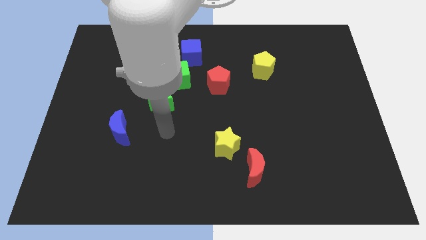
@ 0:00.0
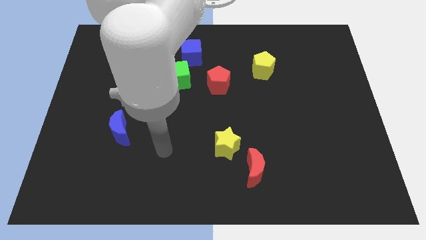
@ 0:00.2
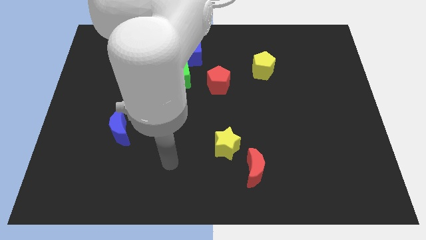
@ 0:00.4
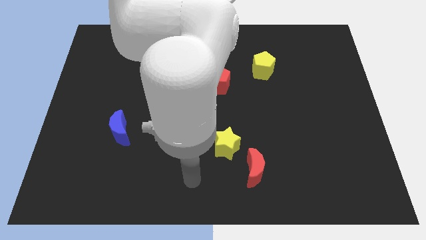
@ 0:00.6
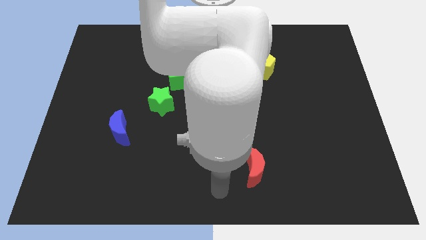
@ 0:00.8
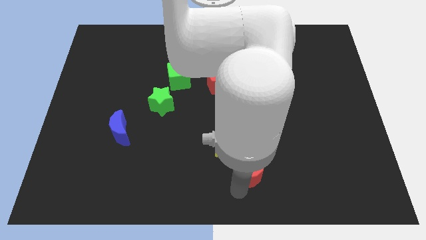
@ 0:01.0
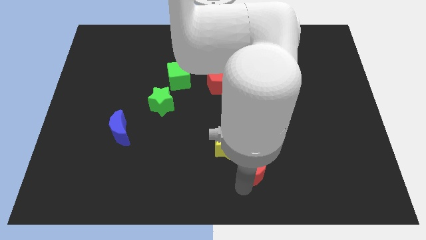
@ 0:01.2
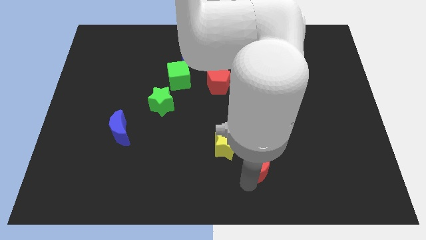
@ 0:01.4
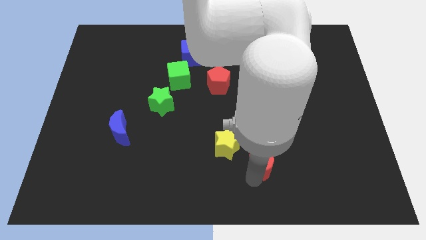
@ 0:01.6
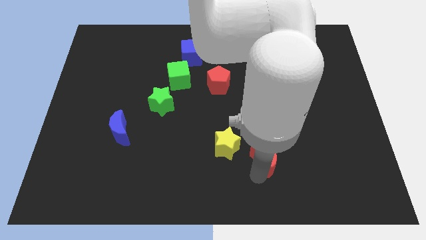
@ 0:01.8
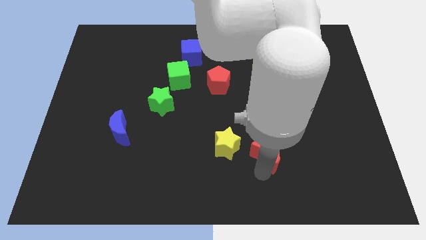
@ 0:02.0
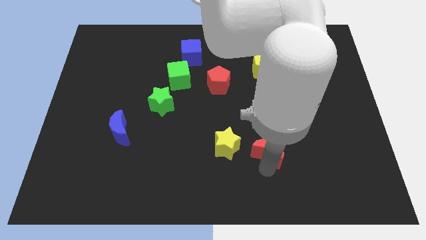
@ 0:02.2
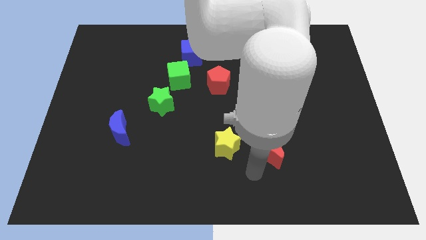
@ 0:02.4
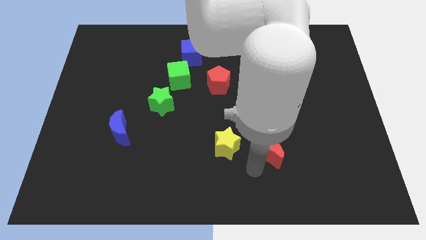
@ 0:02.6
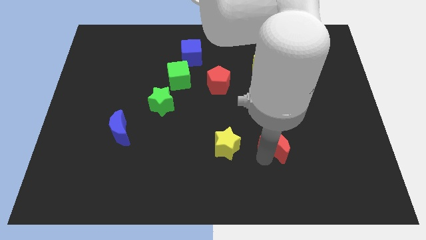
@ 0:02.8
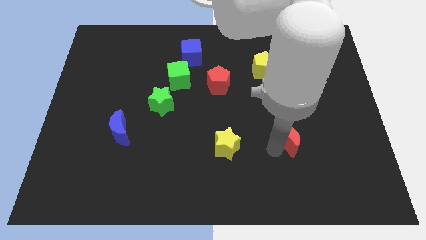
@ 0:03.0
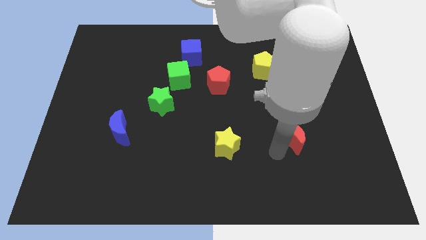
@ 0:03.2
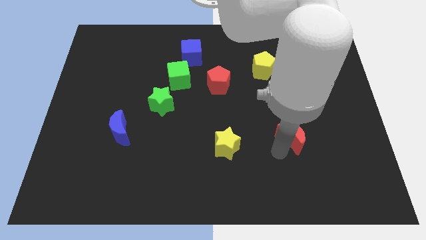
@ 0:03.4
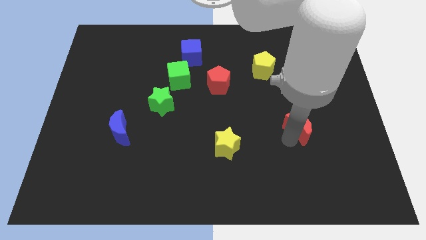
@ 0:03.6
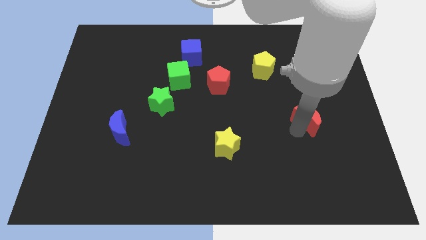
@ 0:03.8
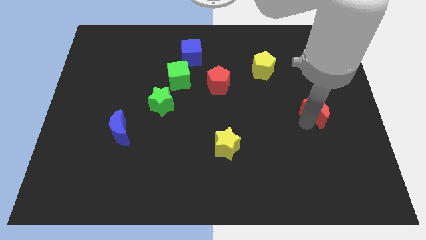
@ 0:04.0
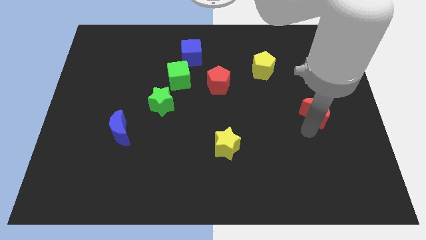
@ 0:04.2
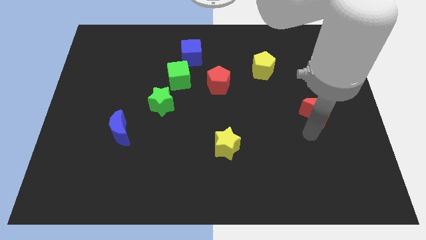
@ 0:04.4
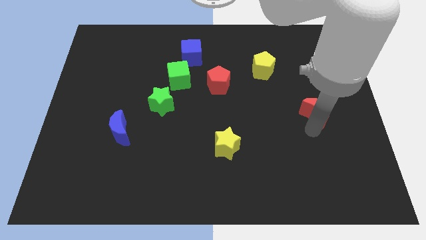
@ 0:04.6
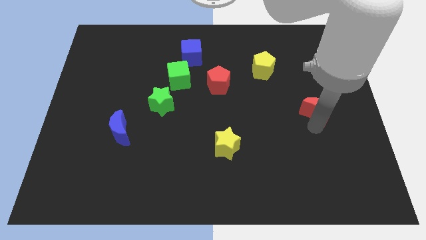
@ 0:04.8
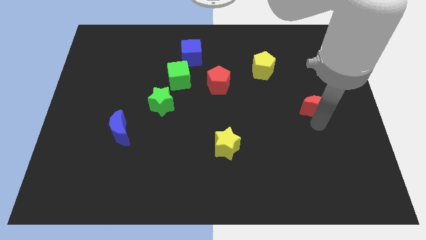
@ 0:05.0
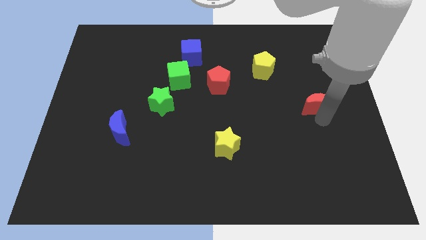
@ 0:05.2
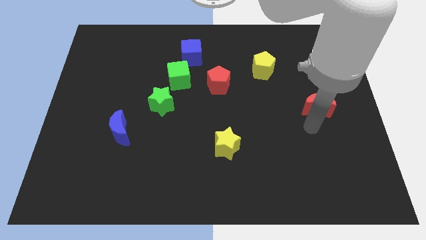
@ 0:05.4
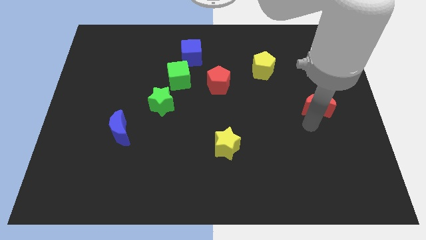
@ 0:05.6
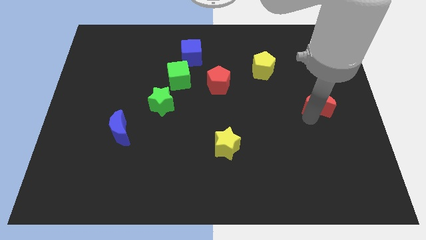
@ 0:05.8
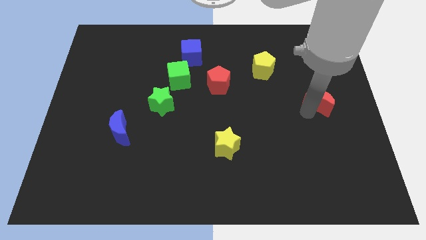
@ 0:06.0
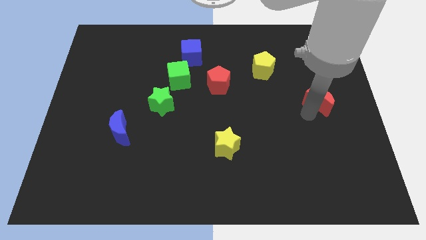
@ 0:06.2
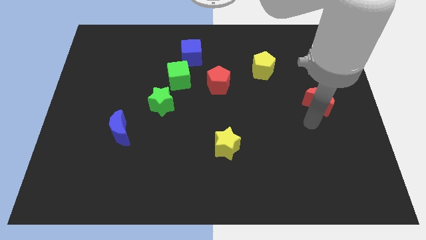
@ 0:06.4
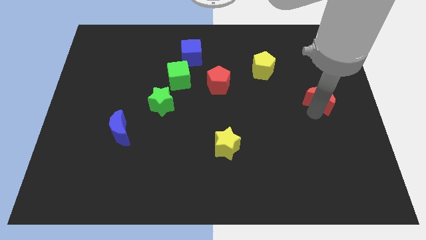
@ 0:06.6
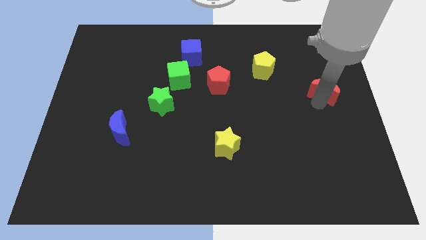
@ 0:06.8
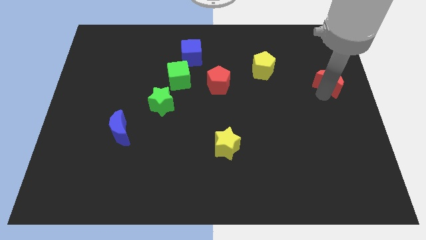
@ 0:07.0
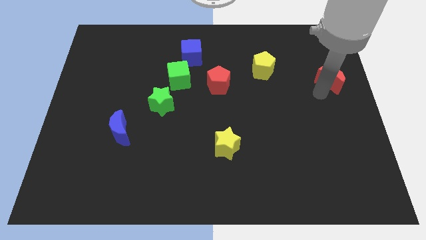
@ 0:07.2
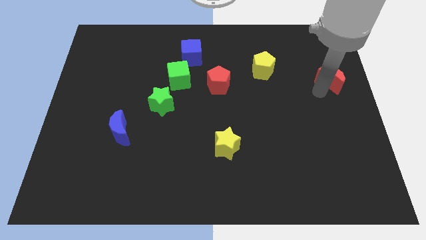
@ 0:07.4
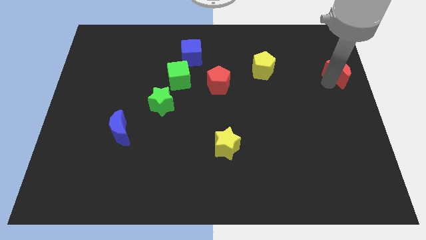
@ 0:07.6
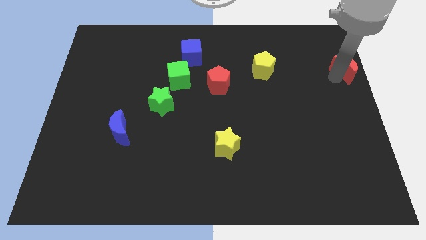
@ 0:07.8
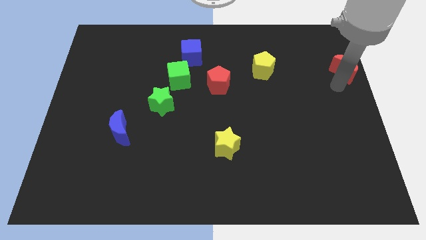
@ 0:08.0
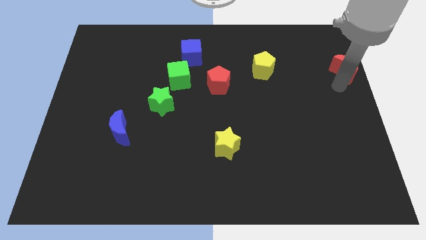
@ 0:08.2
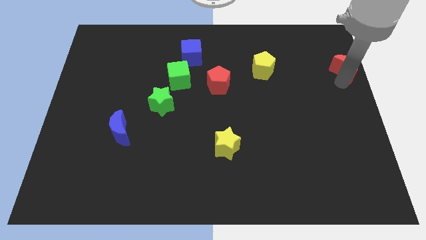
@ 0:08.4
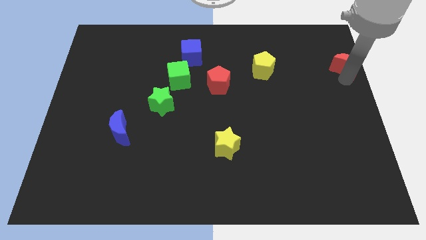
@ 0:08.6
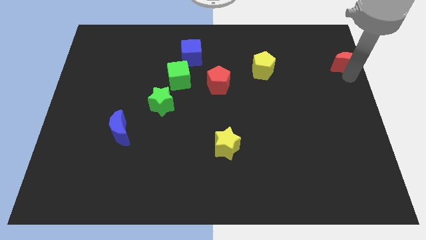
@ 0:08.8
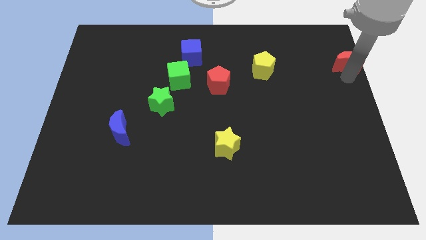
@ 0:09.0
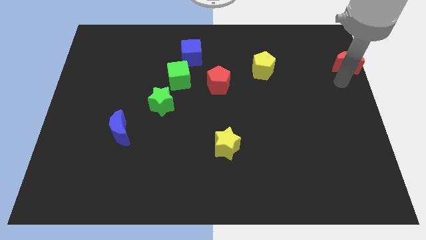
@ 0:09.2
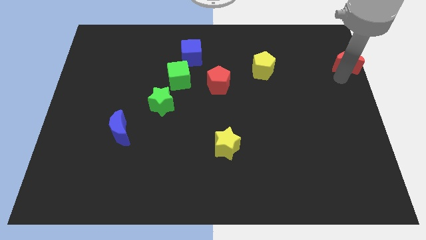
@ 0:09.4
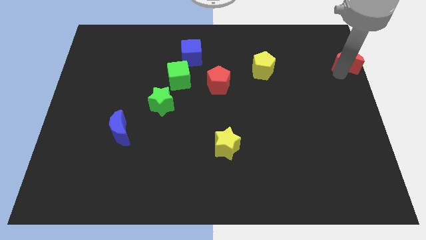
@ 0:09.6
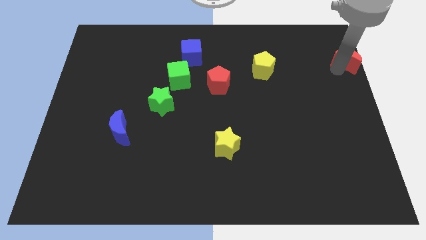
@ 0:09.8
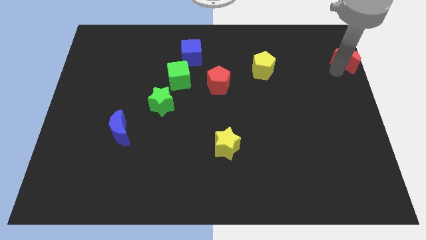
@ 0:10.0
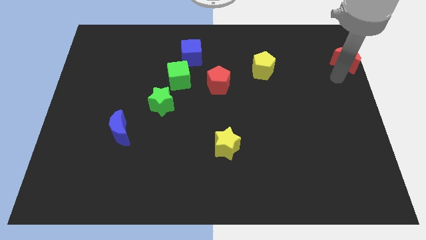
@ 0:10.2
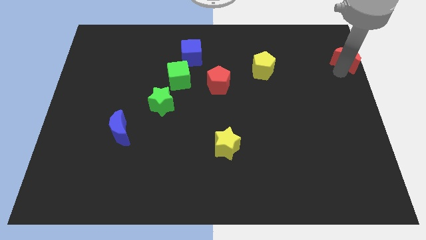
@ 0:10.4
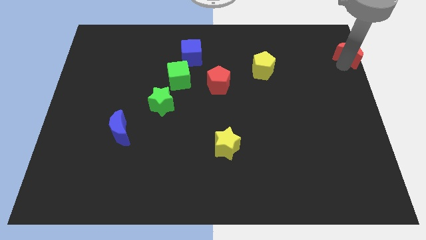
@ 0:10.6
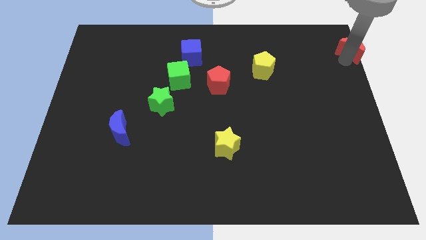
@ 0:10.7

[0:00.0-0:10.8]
put the red moon to the top right corner

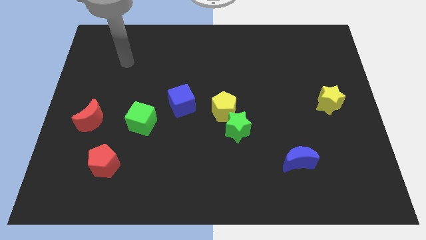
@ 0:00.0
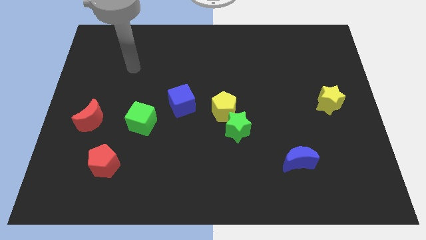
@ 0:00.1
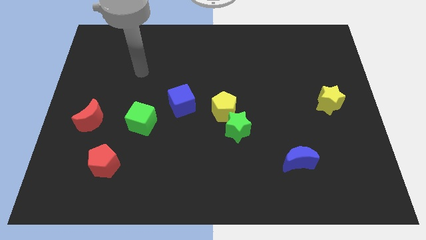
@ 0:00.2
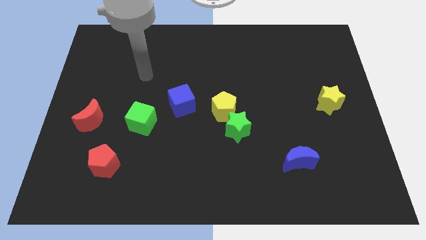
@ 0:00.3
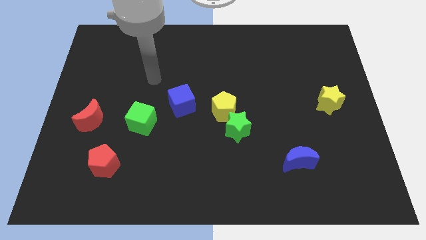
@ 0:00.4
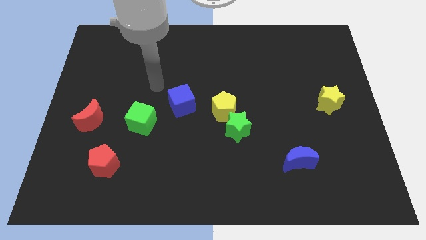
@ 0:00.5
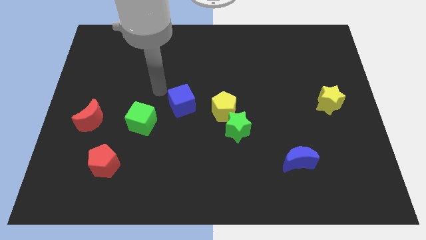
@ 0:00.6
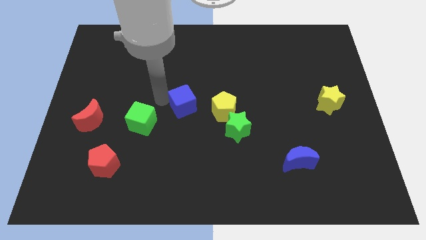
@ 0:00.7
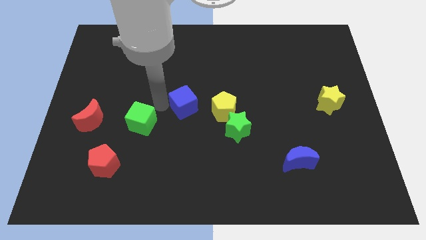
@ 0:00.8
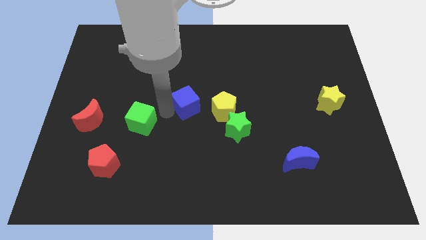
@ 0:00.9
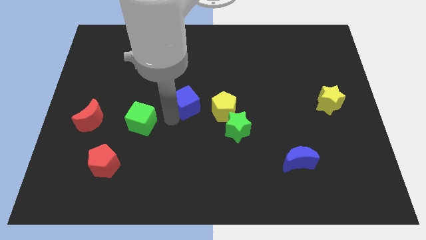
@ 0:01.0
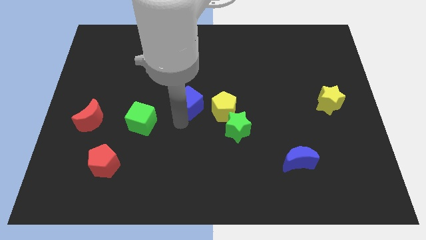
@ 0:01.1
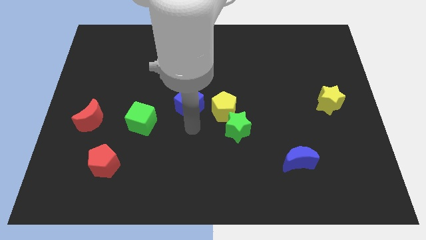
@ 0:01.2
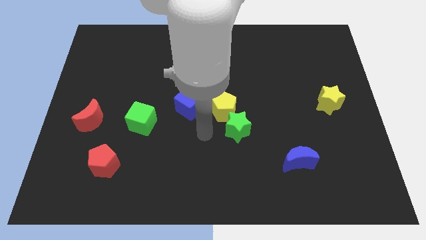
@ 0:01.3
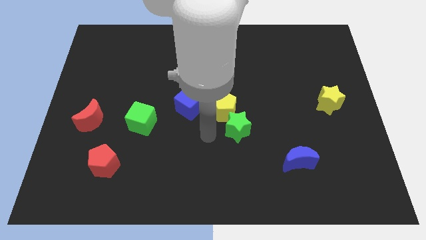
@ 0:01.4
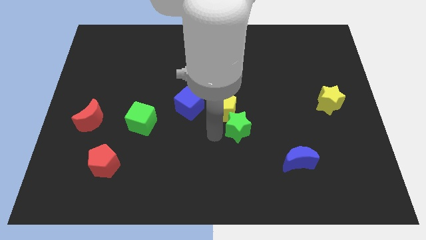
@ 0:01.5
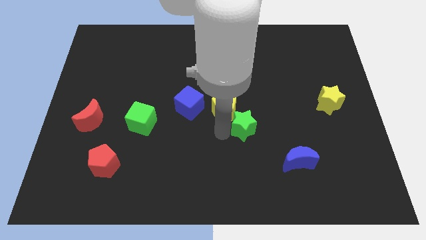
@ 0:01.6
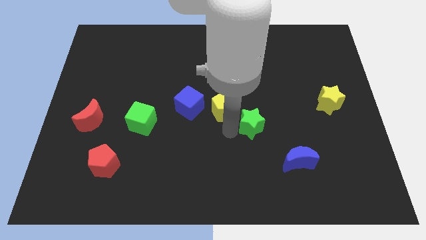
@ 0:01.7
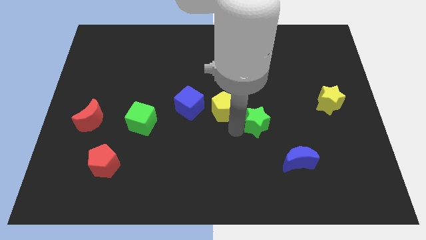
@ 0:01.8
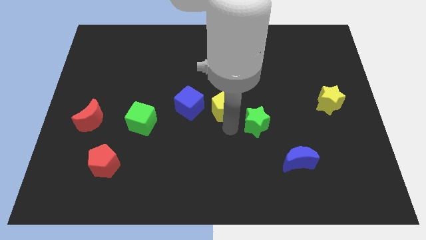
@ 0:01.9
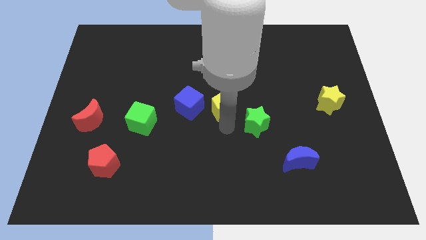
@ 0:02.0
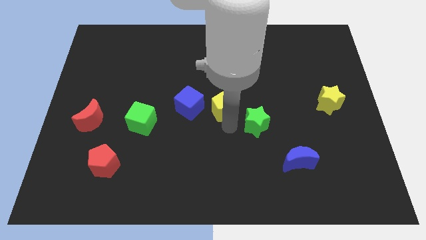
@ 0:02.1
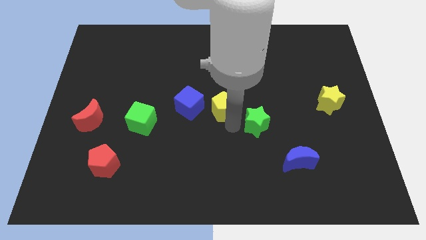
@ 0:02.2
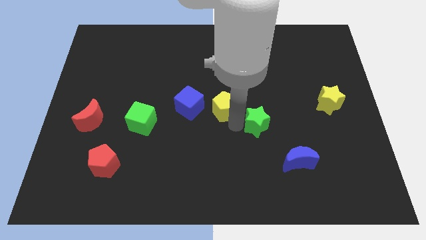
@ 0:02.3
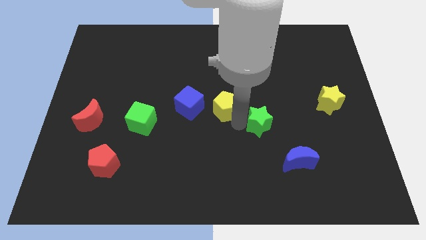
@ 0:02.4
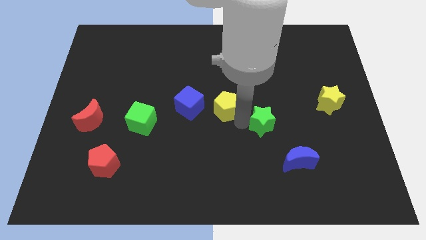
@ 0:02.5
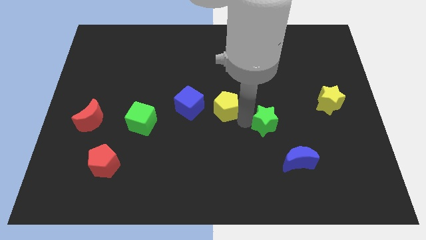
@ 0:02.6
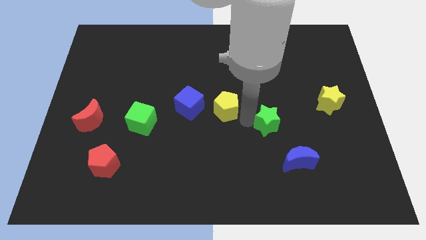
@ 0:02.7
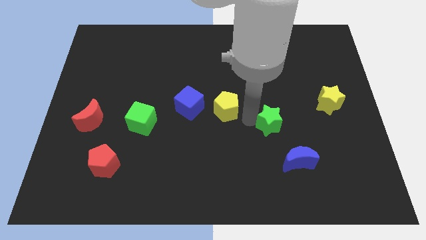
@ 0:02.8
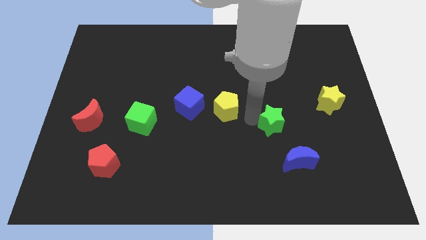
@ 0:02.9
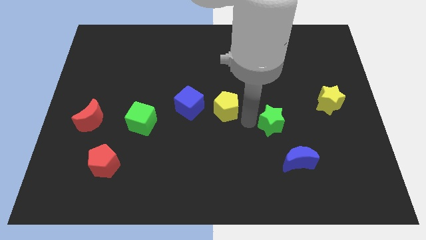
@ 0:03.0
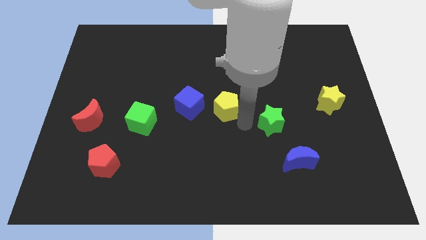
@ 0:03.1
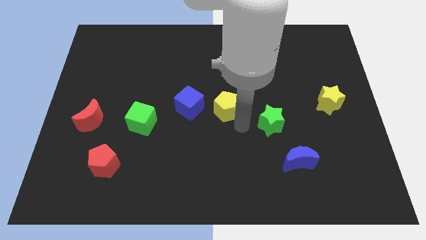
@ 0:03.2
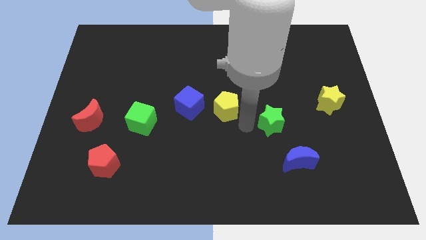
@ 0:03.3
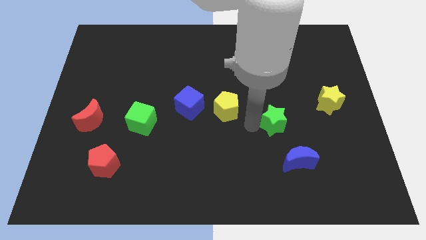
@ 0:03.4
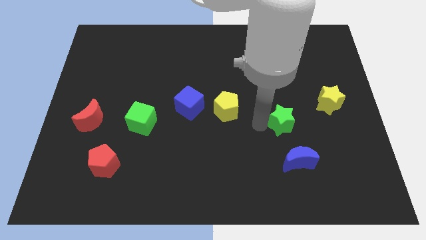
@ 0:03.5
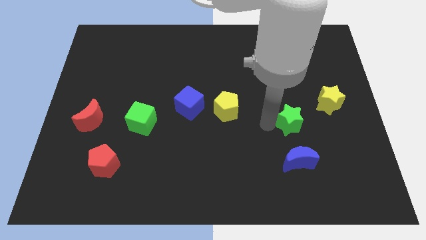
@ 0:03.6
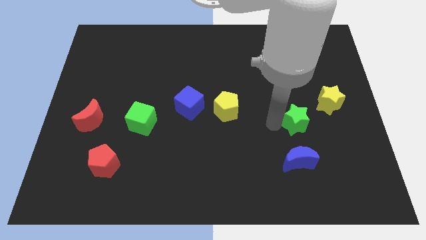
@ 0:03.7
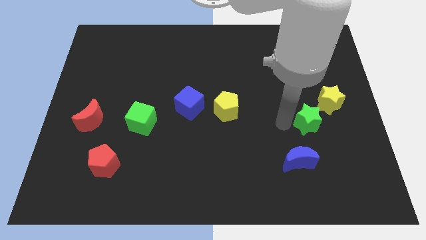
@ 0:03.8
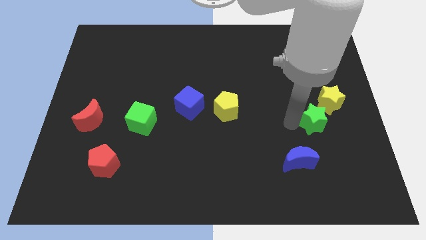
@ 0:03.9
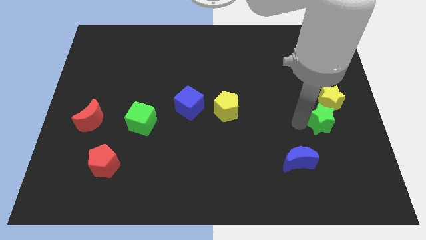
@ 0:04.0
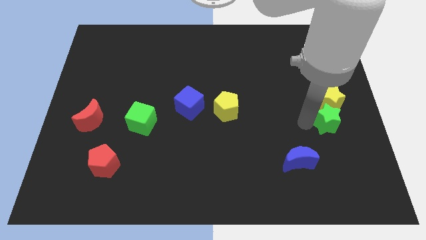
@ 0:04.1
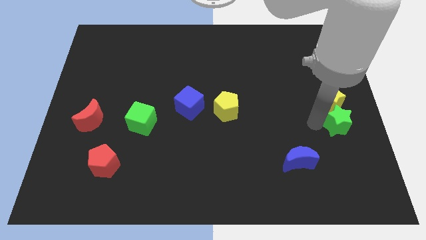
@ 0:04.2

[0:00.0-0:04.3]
put the green star to the right side of the board
